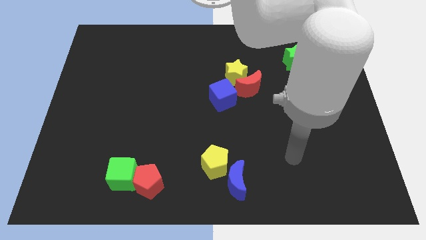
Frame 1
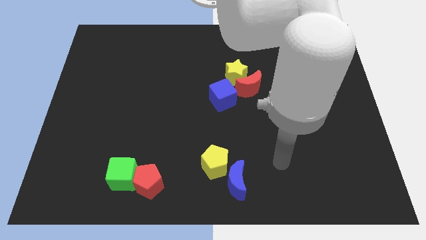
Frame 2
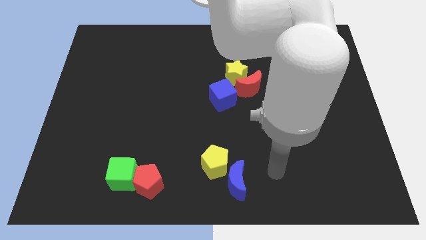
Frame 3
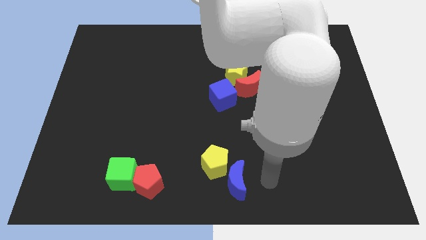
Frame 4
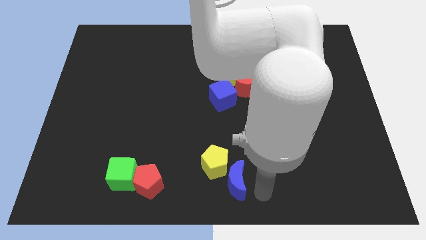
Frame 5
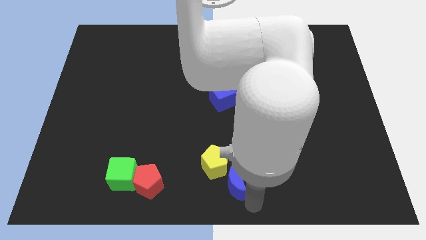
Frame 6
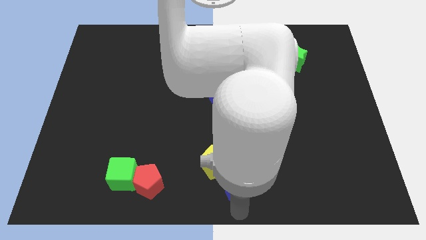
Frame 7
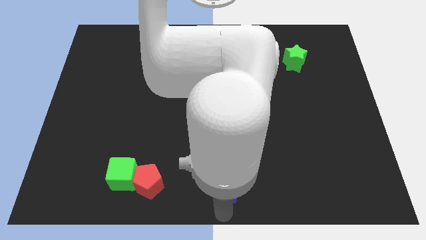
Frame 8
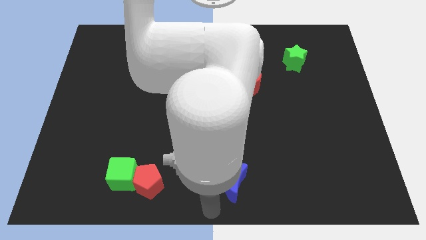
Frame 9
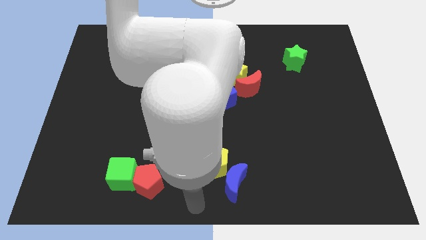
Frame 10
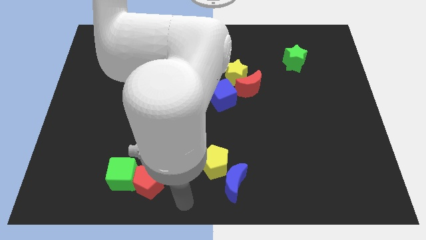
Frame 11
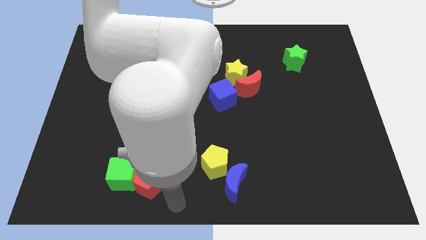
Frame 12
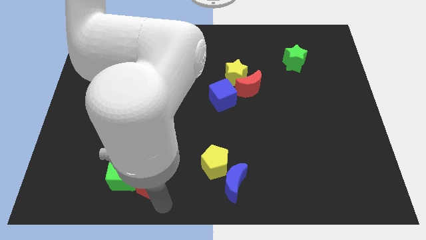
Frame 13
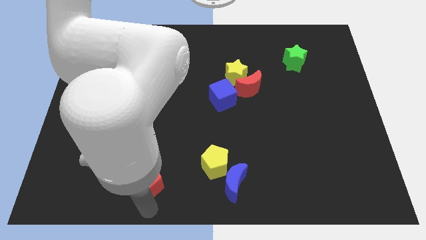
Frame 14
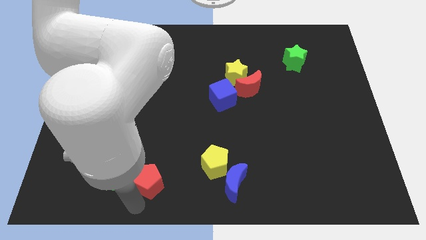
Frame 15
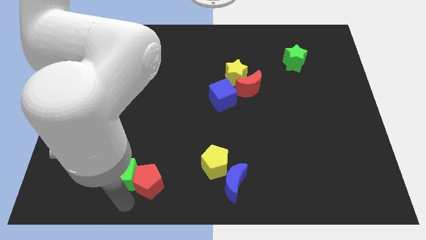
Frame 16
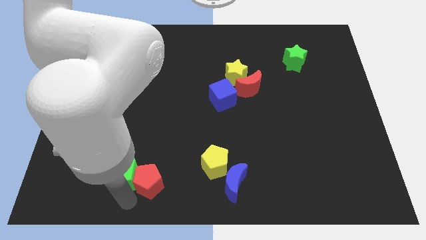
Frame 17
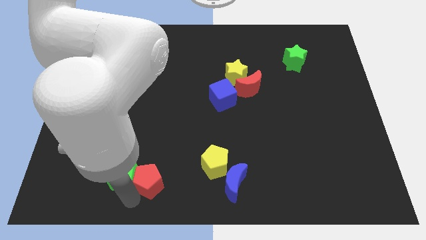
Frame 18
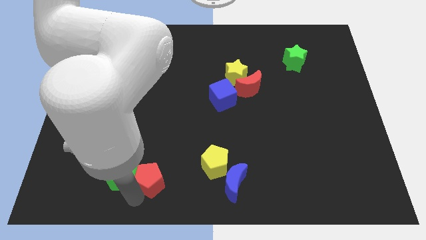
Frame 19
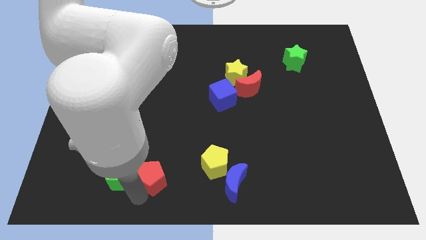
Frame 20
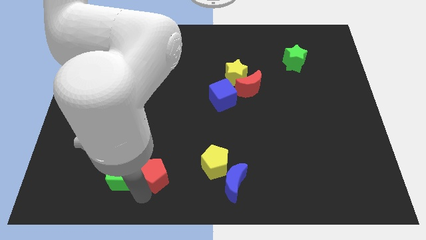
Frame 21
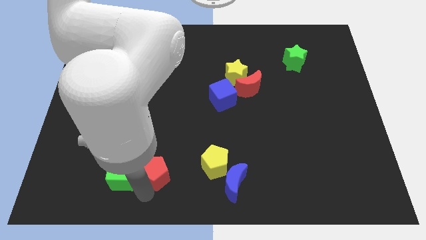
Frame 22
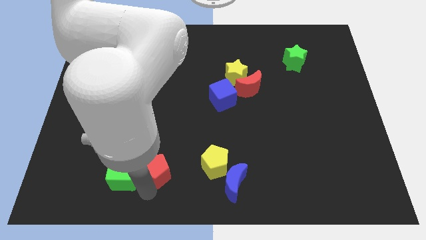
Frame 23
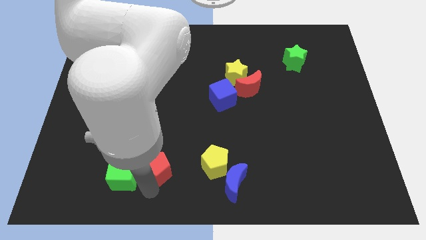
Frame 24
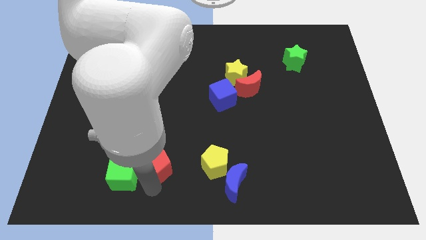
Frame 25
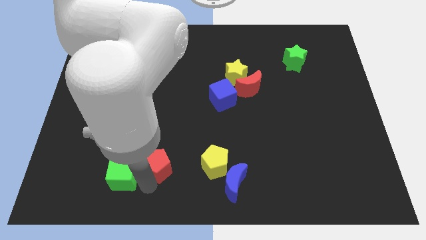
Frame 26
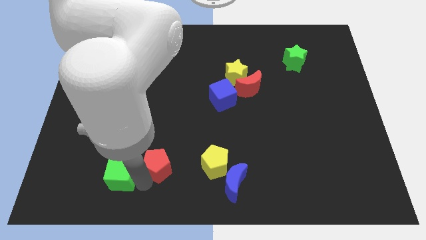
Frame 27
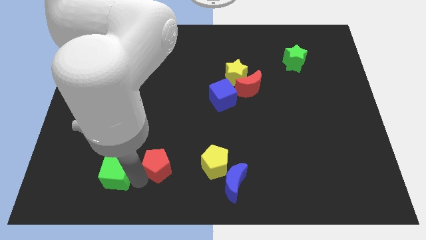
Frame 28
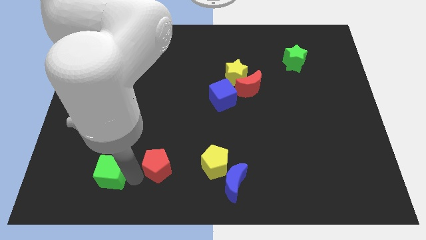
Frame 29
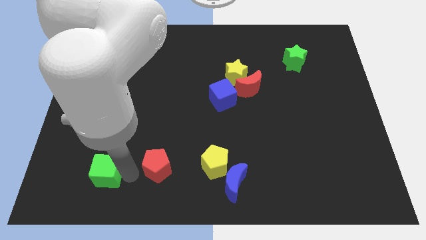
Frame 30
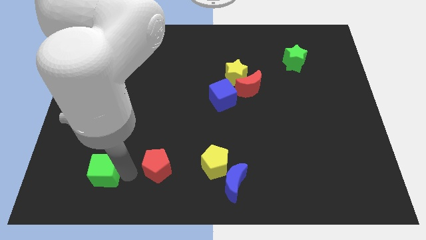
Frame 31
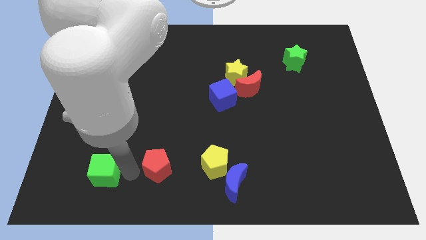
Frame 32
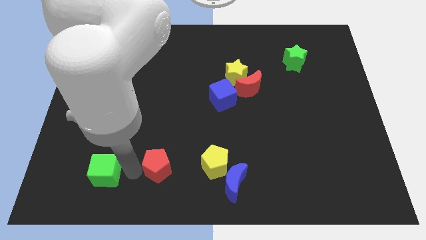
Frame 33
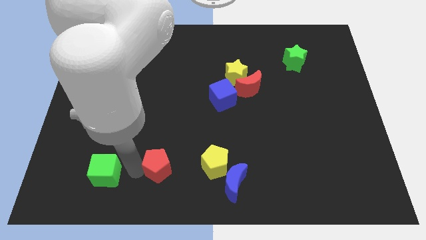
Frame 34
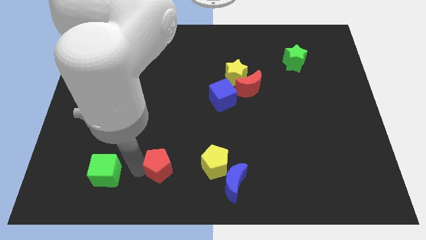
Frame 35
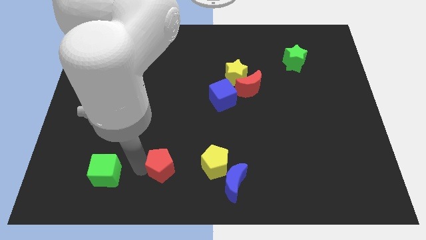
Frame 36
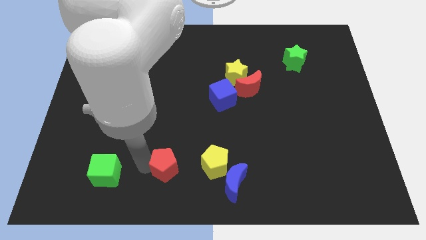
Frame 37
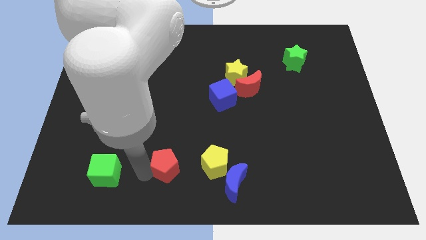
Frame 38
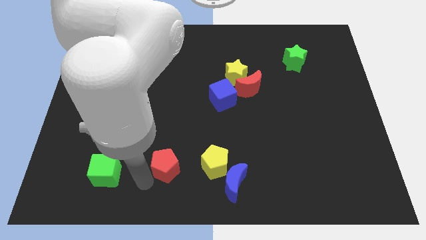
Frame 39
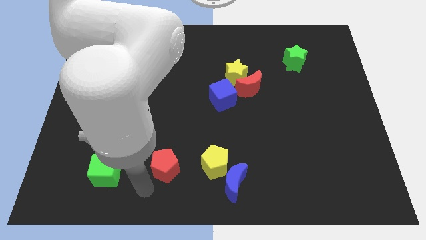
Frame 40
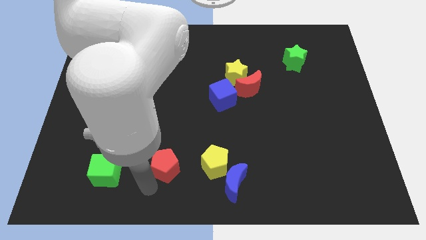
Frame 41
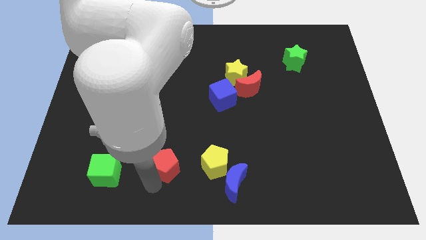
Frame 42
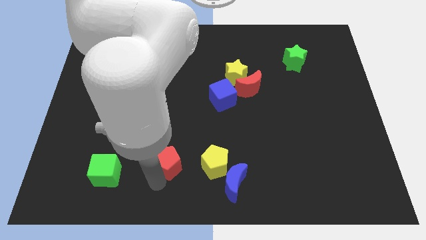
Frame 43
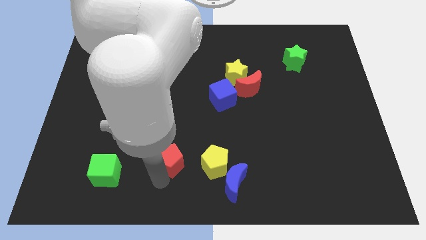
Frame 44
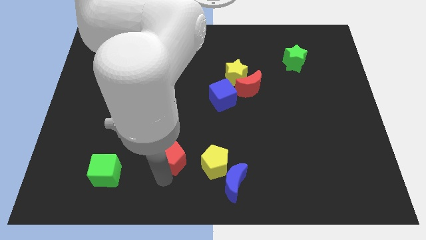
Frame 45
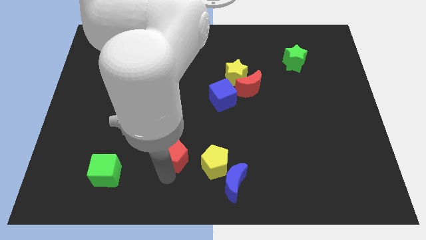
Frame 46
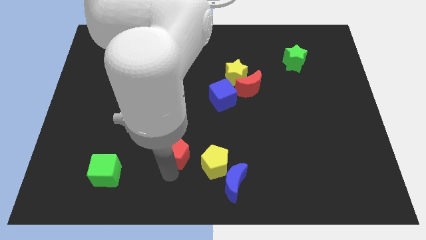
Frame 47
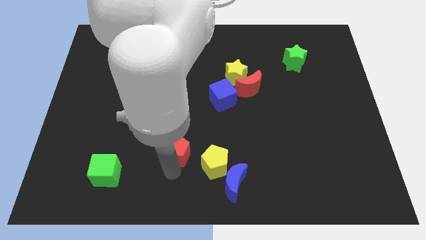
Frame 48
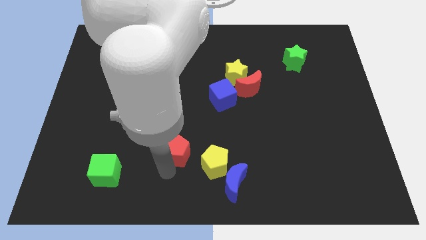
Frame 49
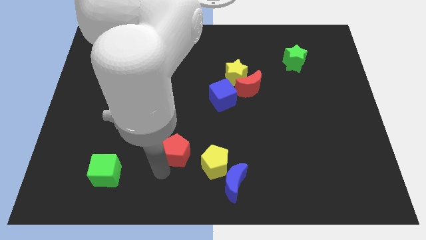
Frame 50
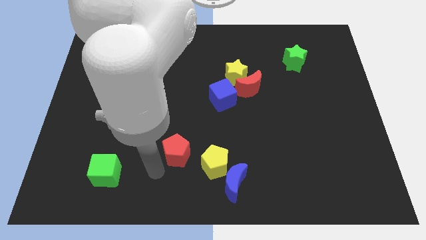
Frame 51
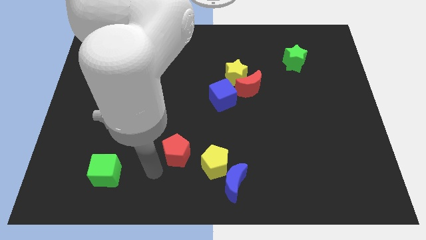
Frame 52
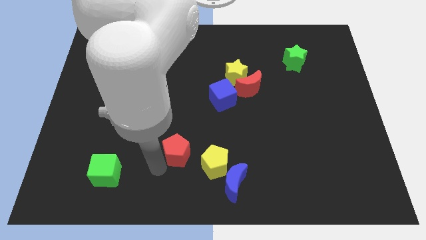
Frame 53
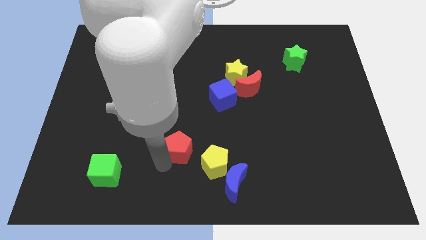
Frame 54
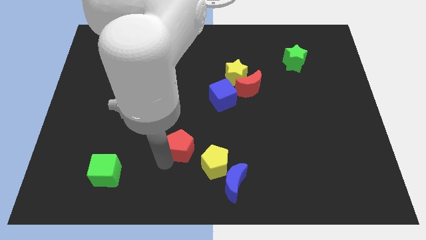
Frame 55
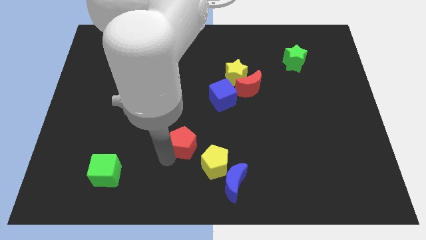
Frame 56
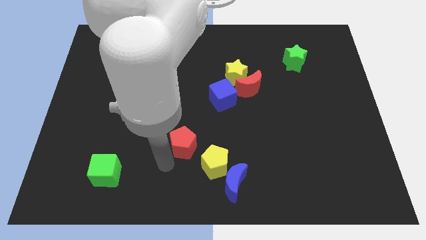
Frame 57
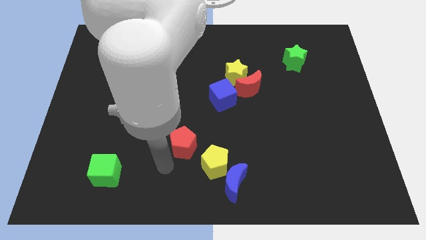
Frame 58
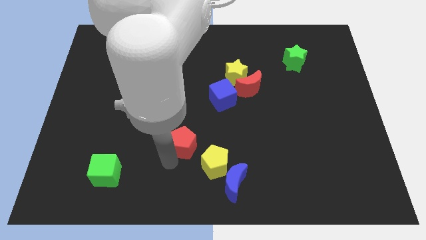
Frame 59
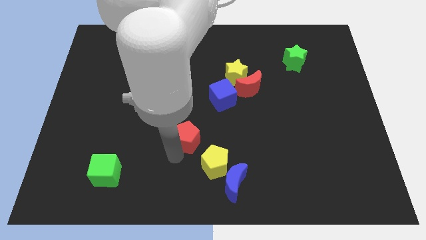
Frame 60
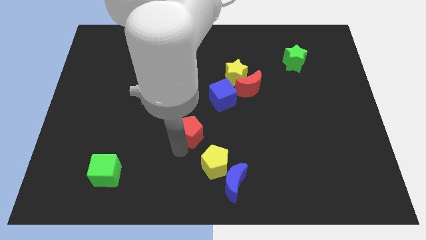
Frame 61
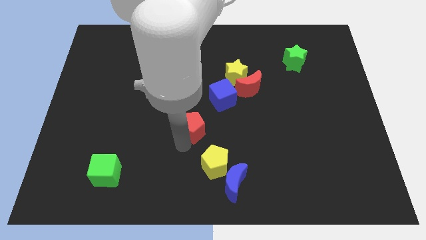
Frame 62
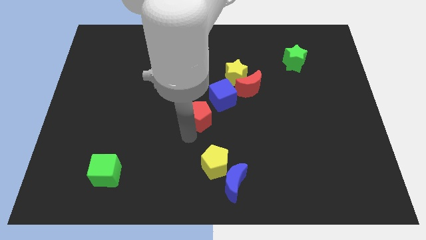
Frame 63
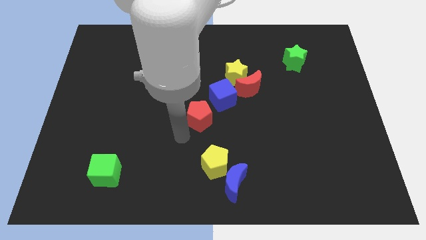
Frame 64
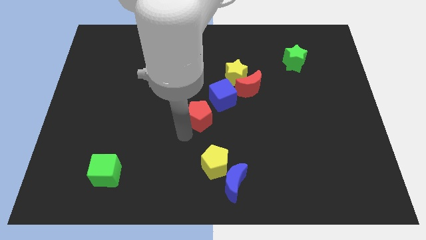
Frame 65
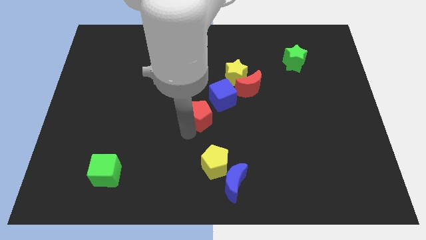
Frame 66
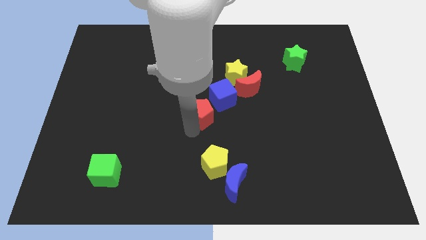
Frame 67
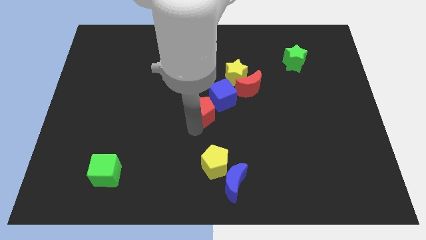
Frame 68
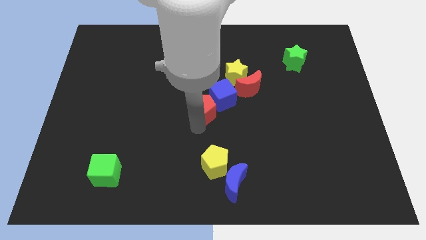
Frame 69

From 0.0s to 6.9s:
slide the red pentagon towards the blue cube

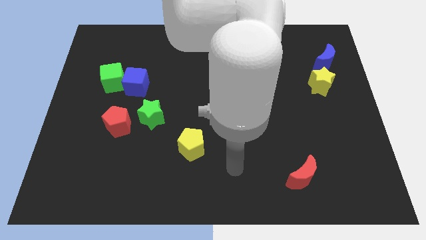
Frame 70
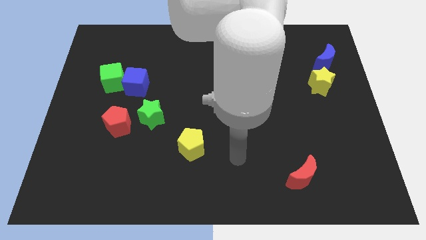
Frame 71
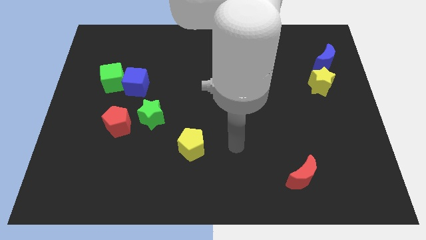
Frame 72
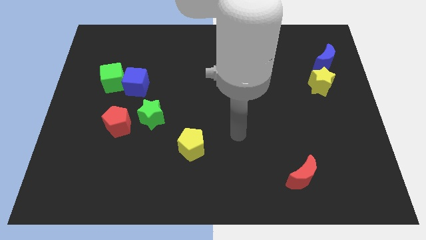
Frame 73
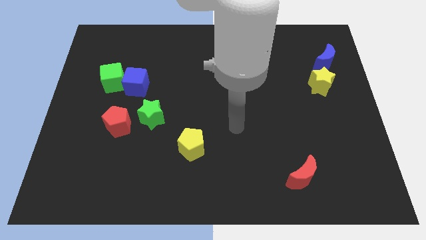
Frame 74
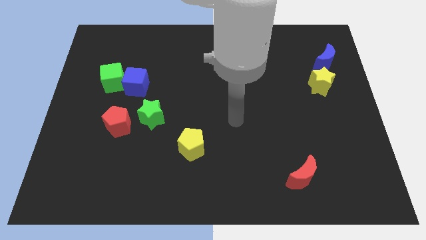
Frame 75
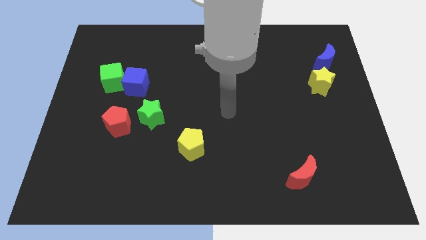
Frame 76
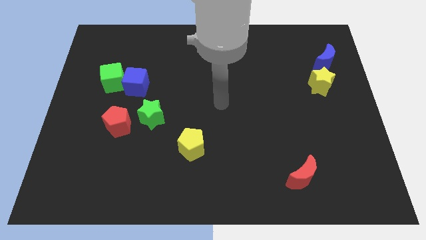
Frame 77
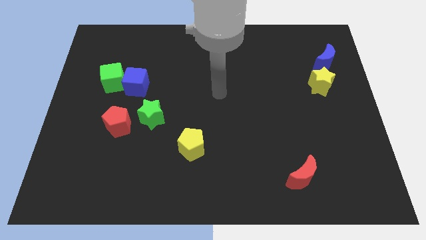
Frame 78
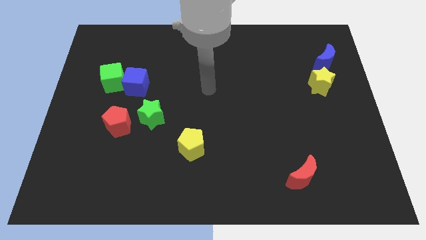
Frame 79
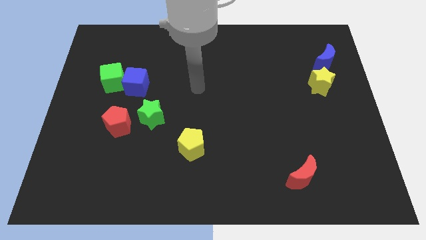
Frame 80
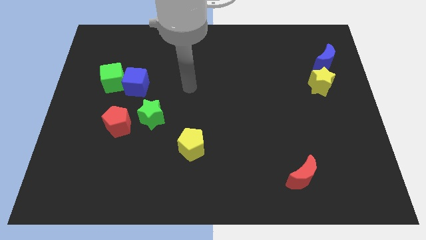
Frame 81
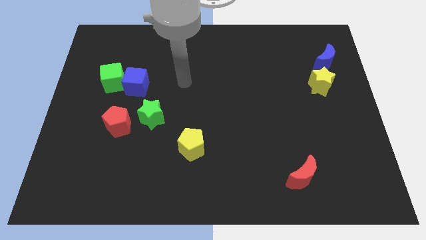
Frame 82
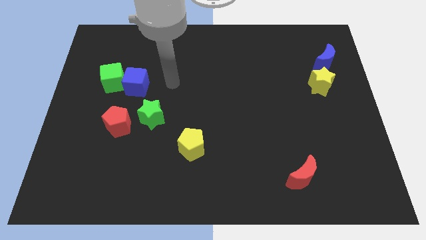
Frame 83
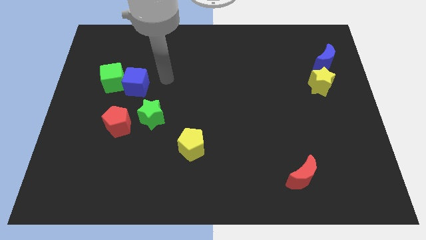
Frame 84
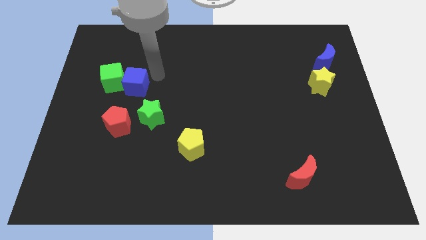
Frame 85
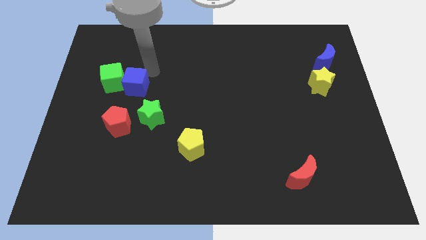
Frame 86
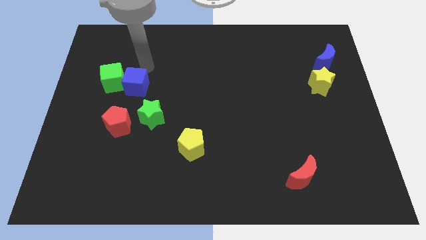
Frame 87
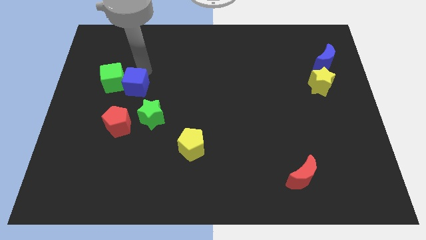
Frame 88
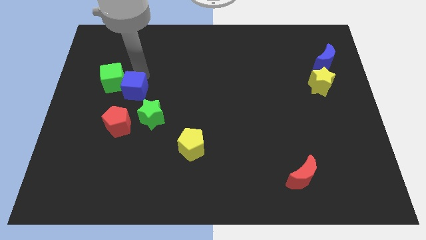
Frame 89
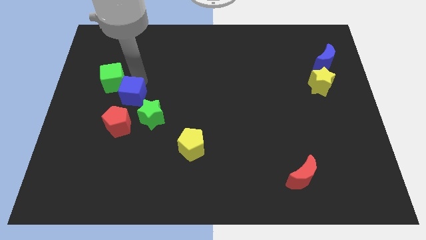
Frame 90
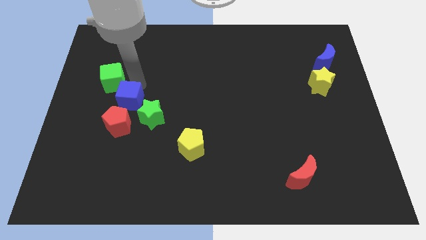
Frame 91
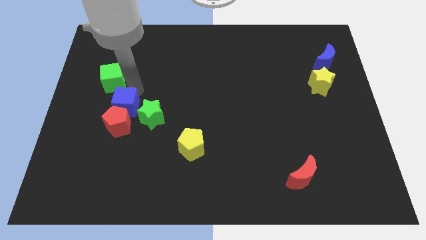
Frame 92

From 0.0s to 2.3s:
slide the blue cube towards the red pentagon
